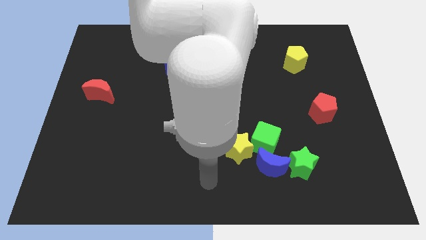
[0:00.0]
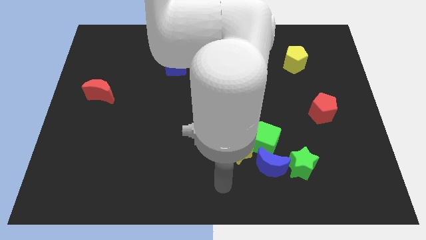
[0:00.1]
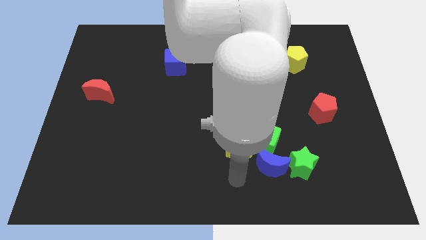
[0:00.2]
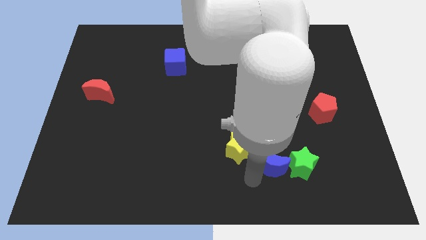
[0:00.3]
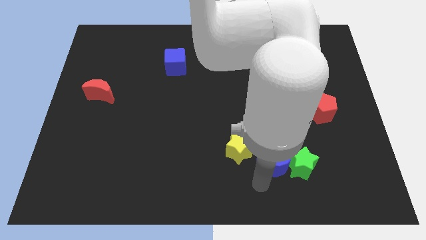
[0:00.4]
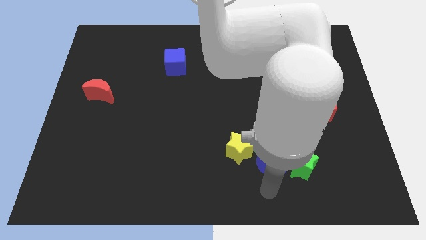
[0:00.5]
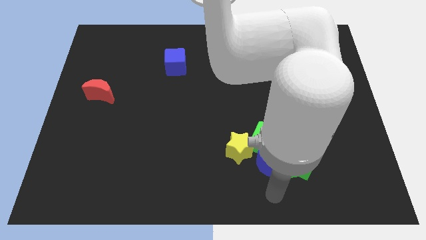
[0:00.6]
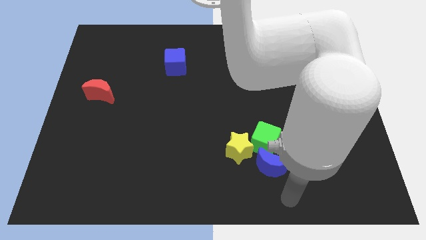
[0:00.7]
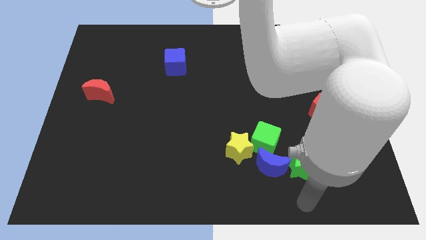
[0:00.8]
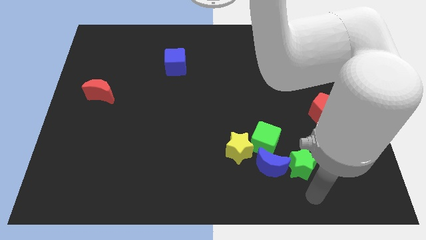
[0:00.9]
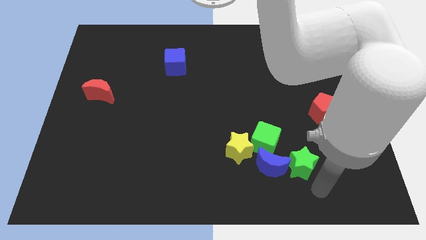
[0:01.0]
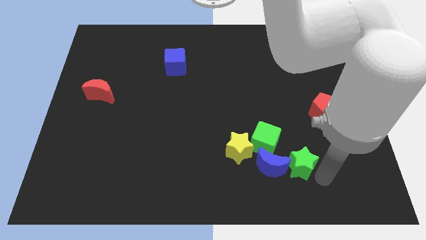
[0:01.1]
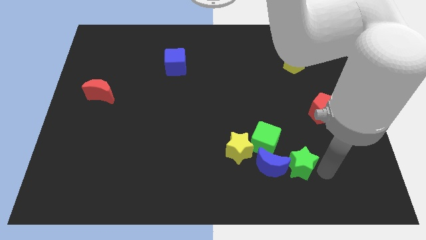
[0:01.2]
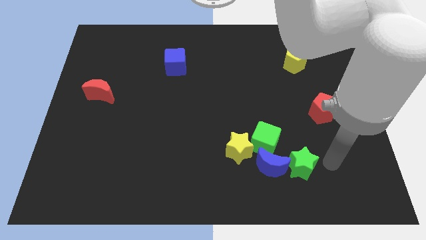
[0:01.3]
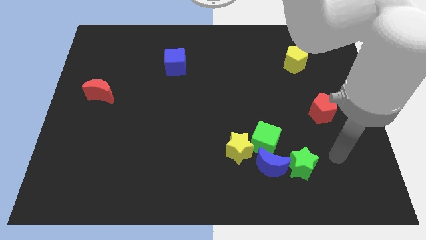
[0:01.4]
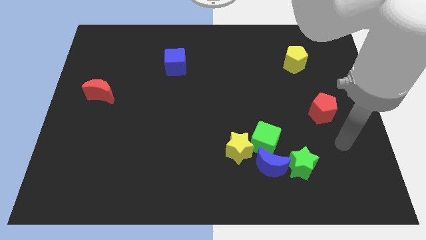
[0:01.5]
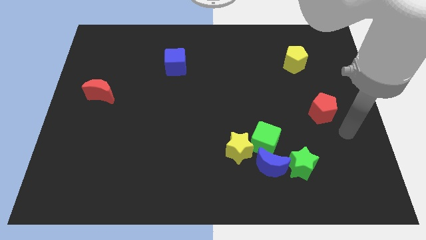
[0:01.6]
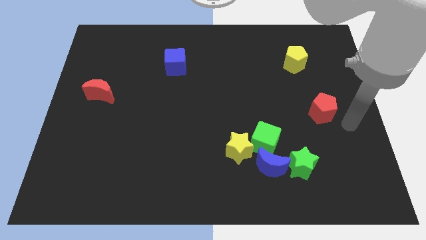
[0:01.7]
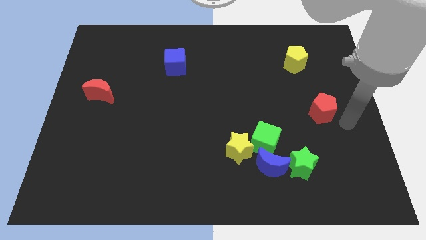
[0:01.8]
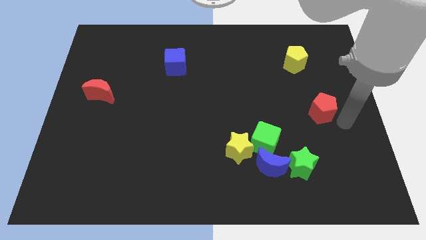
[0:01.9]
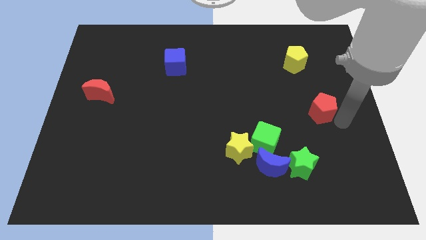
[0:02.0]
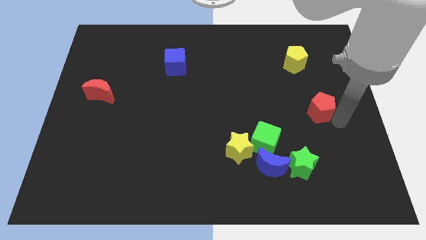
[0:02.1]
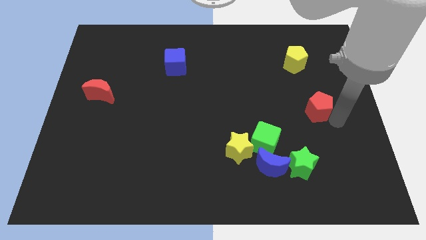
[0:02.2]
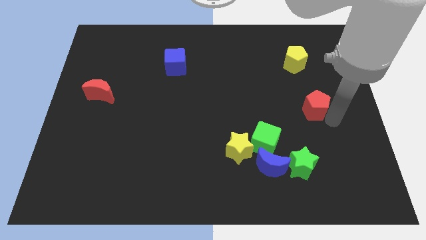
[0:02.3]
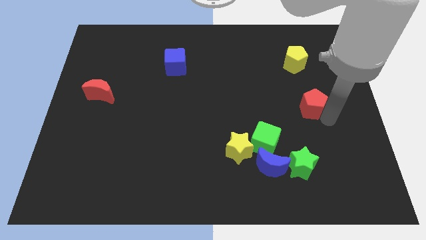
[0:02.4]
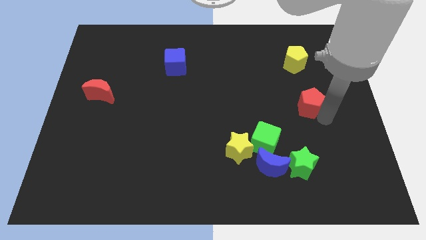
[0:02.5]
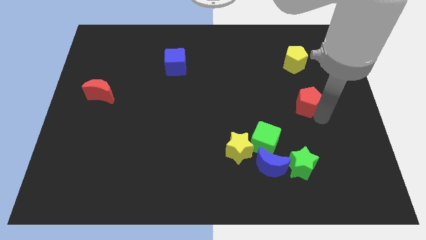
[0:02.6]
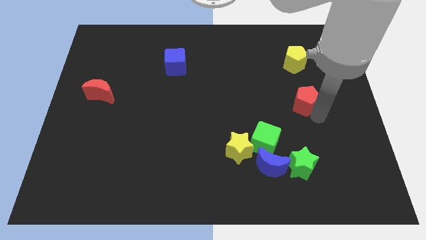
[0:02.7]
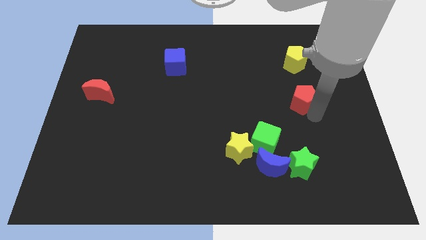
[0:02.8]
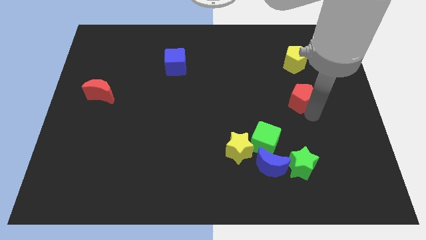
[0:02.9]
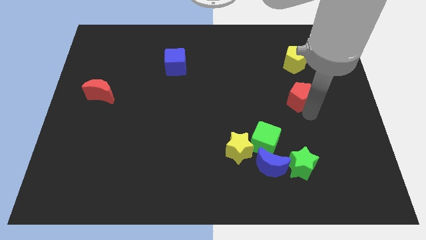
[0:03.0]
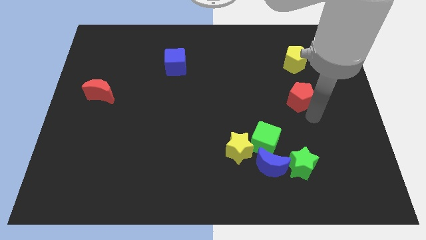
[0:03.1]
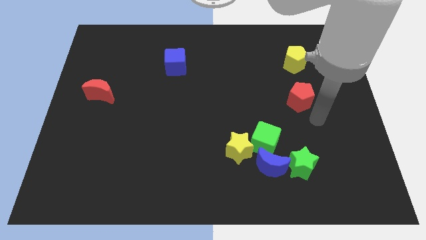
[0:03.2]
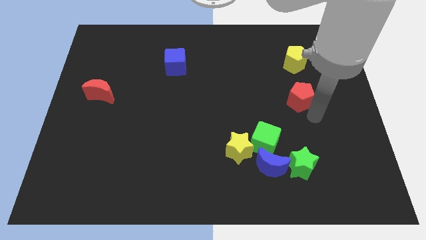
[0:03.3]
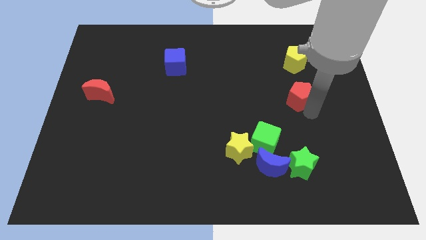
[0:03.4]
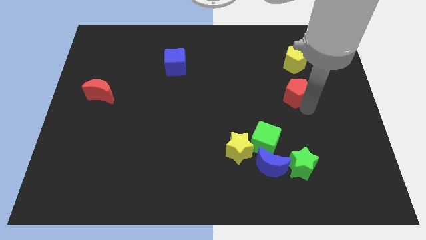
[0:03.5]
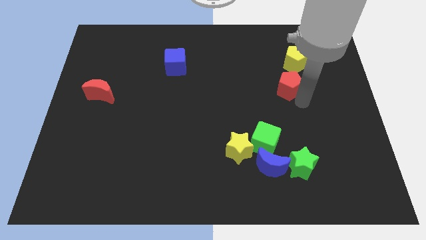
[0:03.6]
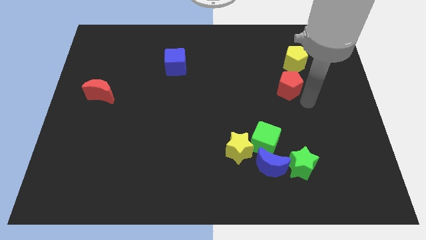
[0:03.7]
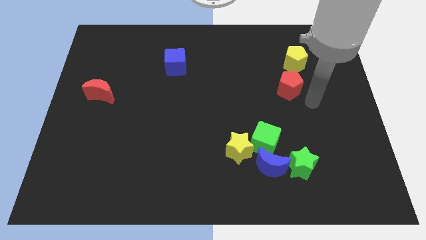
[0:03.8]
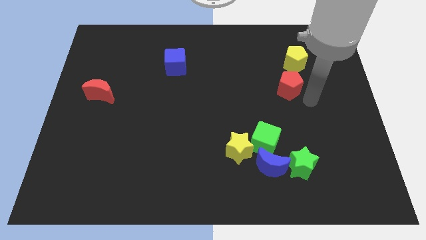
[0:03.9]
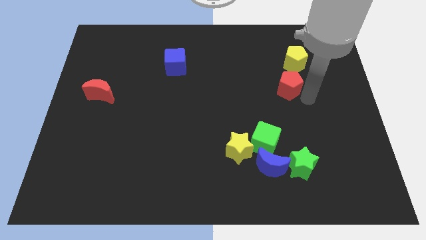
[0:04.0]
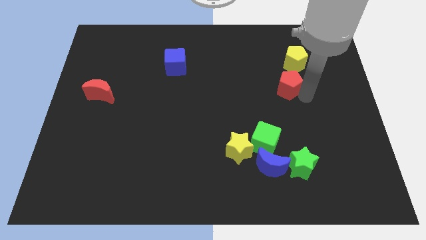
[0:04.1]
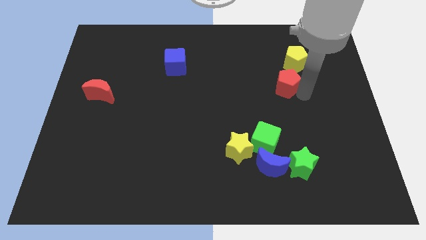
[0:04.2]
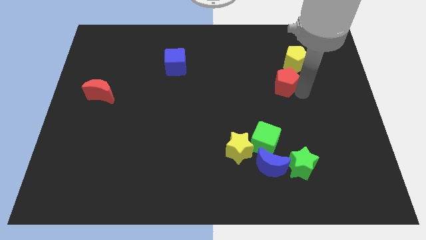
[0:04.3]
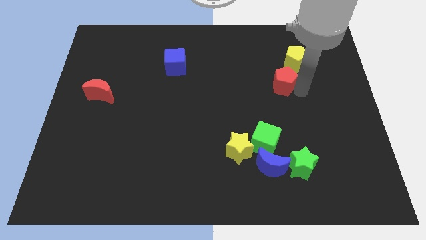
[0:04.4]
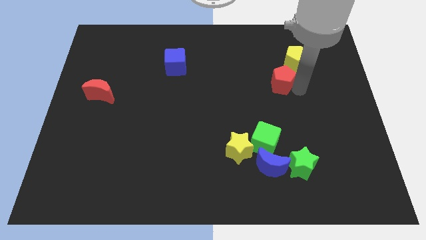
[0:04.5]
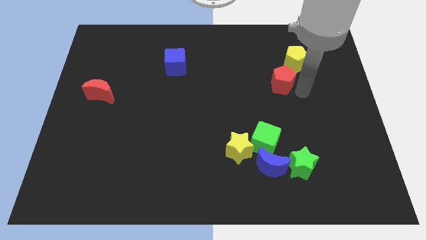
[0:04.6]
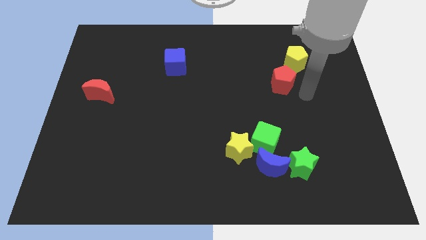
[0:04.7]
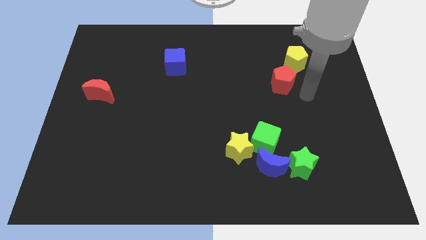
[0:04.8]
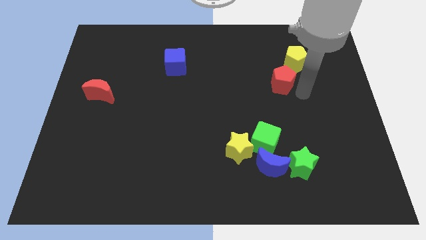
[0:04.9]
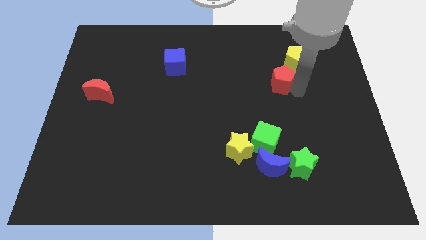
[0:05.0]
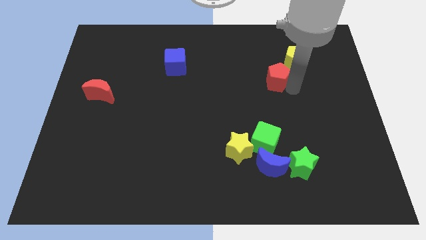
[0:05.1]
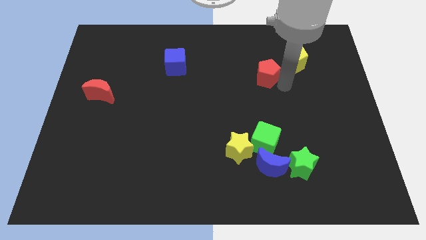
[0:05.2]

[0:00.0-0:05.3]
push the red pentagon left of the yellow pentagon

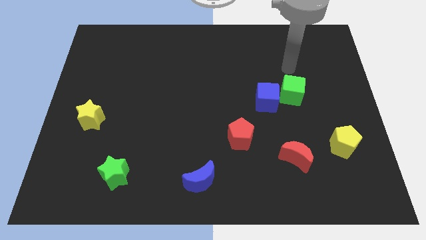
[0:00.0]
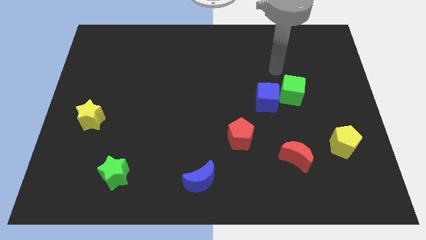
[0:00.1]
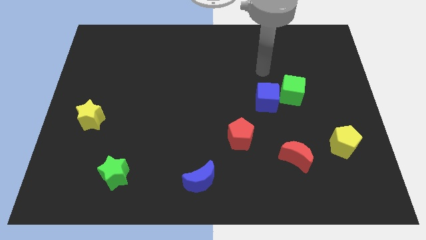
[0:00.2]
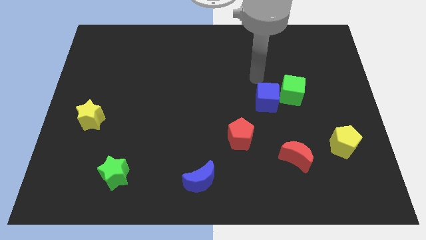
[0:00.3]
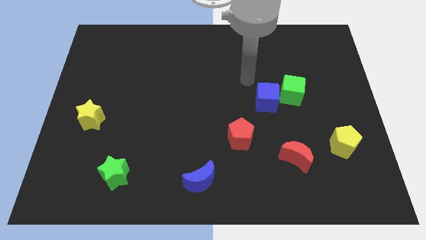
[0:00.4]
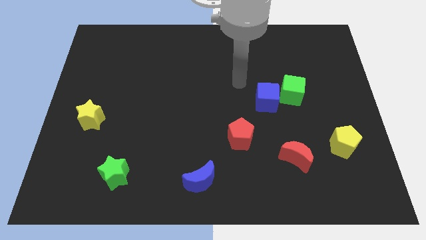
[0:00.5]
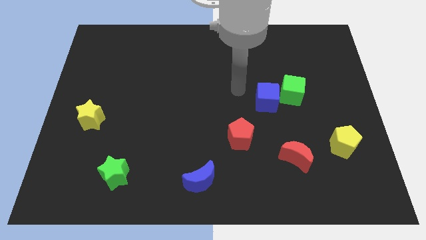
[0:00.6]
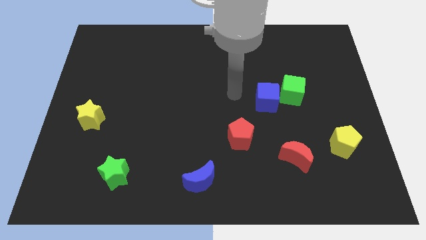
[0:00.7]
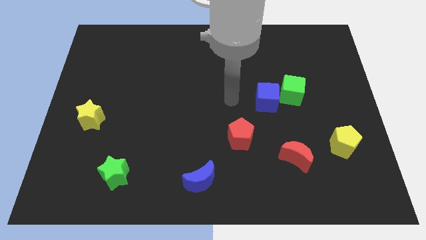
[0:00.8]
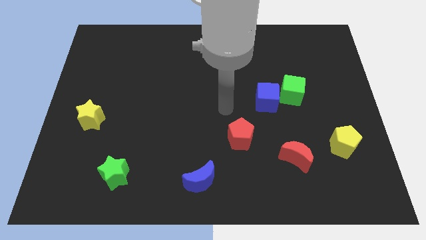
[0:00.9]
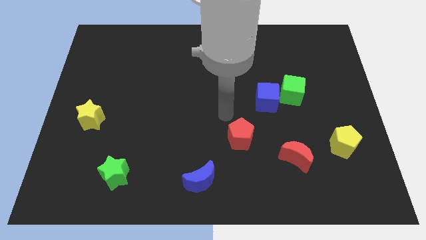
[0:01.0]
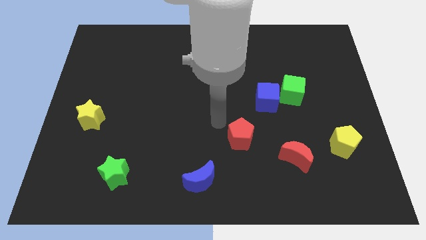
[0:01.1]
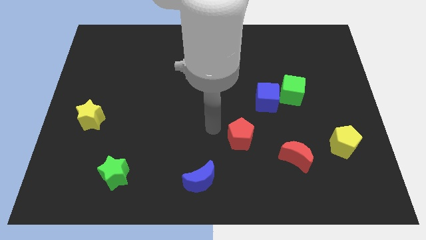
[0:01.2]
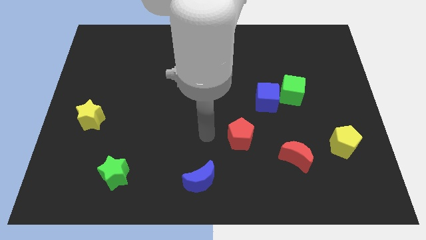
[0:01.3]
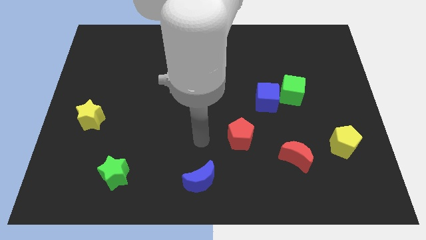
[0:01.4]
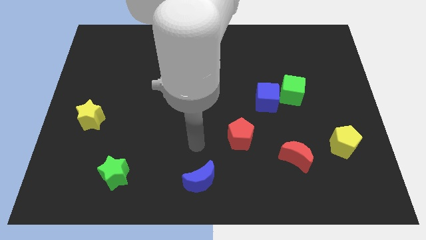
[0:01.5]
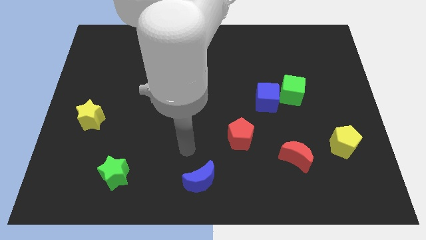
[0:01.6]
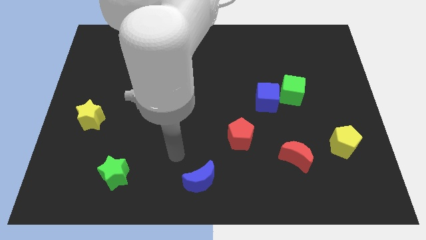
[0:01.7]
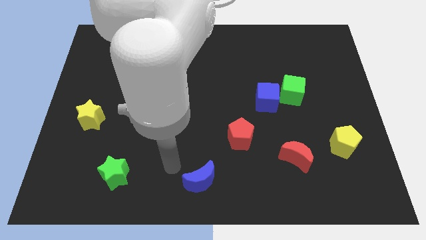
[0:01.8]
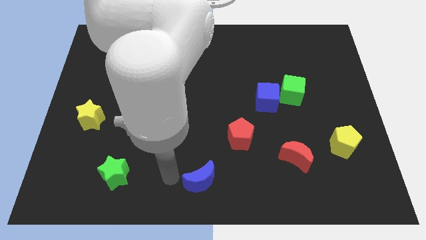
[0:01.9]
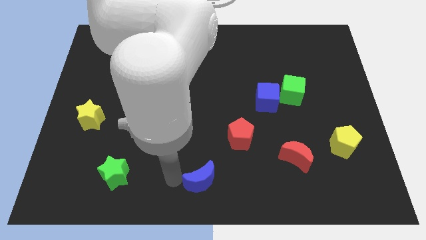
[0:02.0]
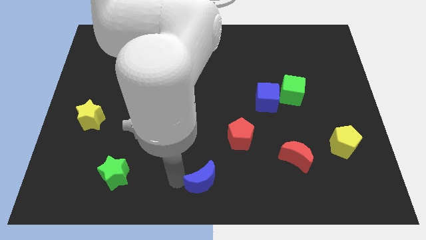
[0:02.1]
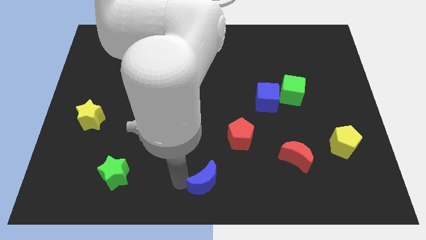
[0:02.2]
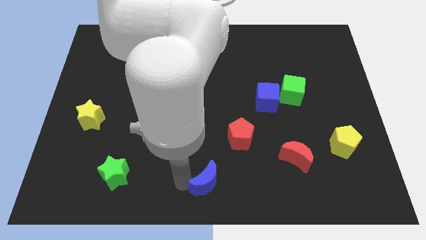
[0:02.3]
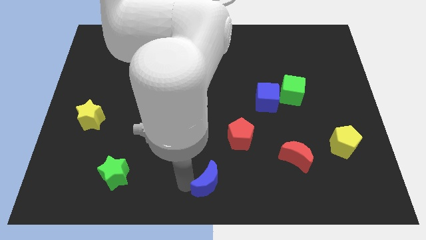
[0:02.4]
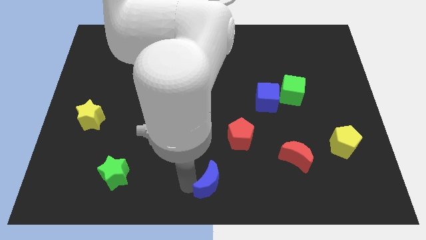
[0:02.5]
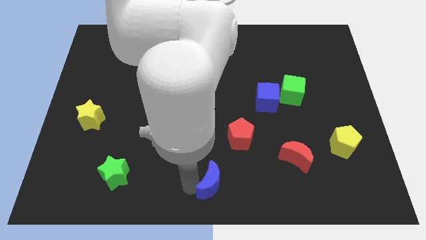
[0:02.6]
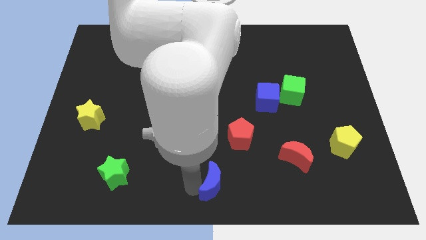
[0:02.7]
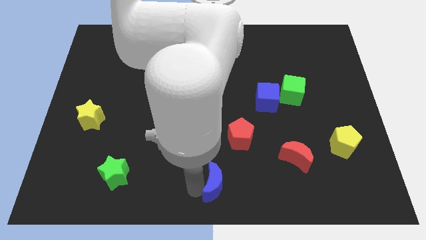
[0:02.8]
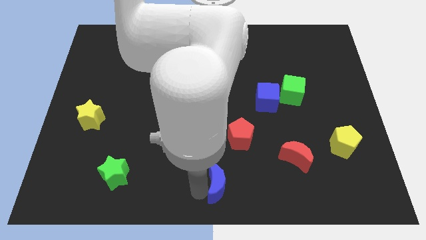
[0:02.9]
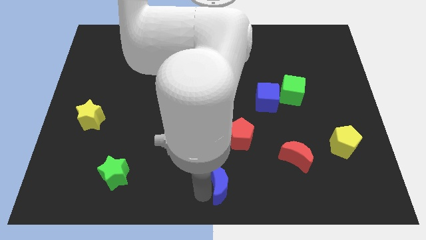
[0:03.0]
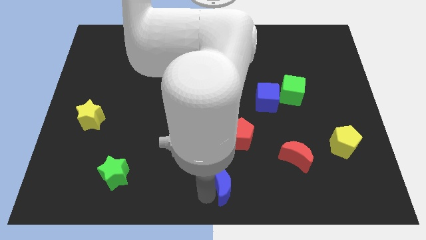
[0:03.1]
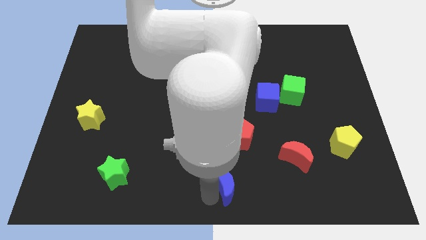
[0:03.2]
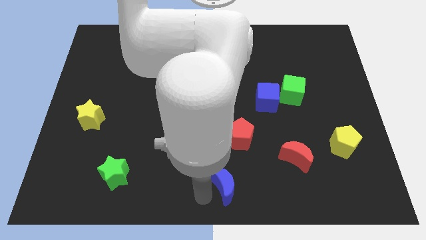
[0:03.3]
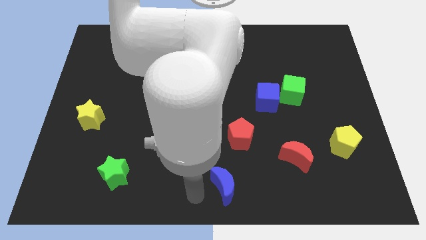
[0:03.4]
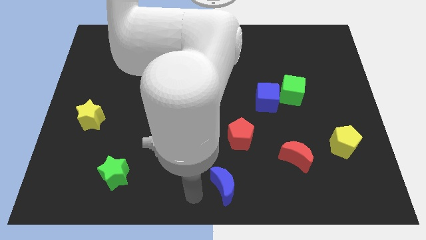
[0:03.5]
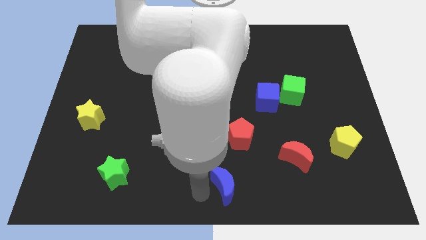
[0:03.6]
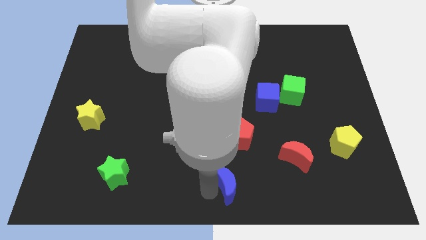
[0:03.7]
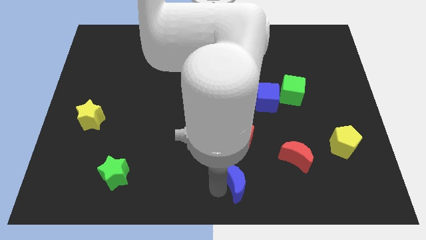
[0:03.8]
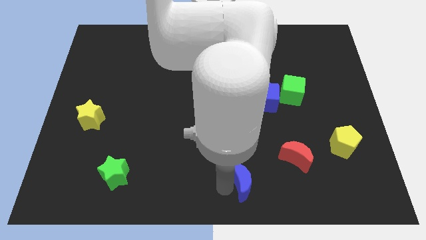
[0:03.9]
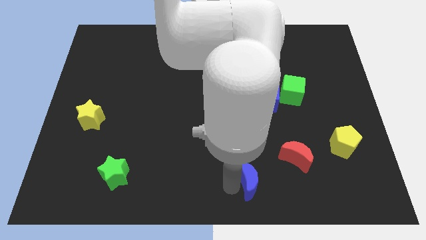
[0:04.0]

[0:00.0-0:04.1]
put the blue moon to the bottom left of the red moon
